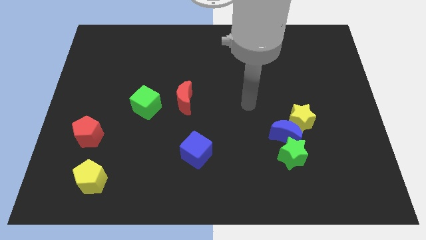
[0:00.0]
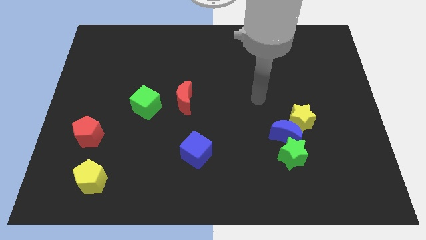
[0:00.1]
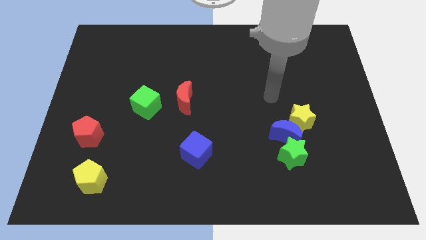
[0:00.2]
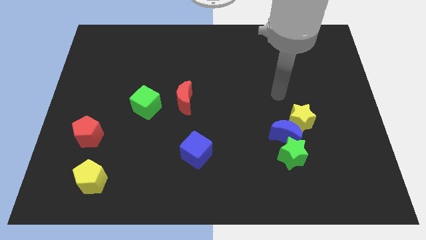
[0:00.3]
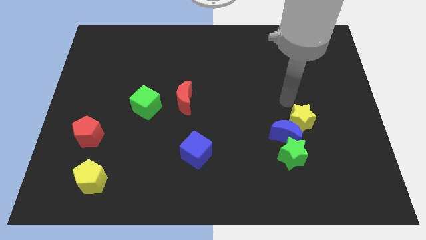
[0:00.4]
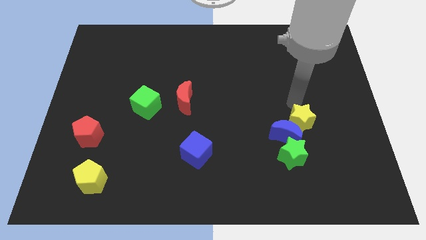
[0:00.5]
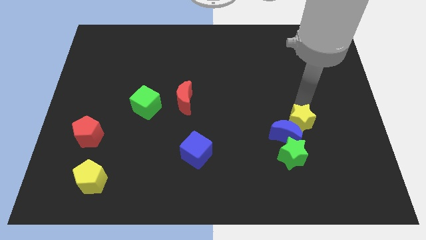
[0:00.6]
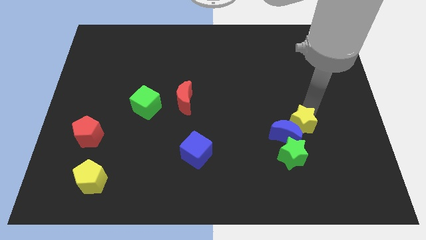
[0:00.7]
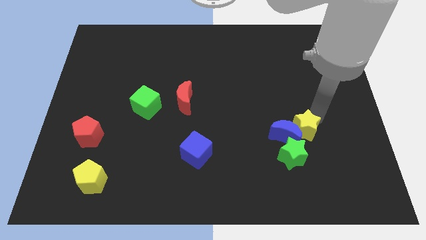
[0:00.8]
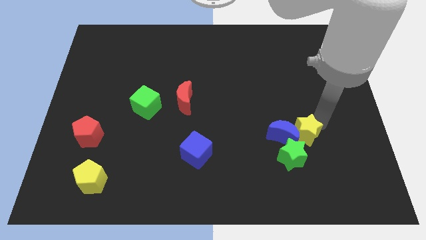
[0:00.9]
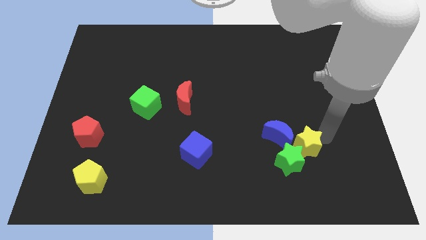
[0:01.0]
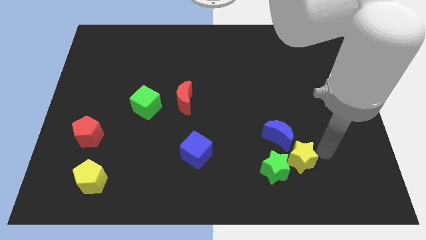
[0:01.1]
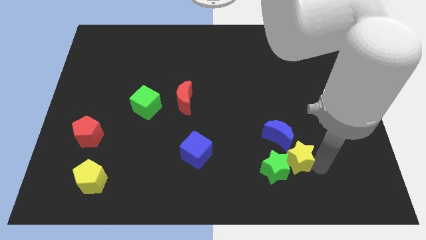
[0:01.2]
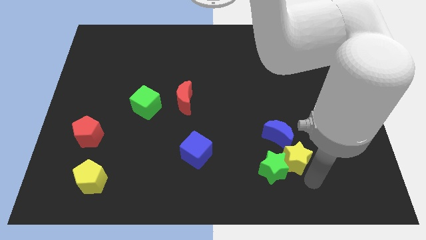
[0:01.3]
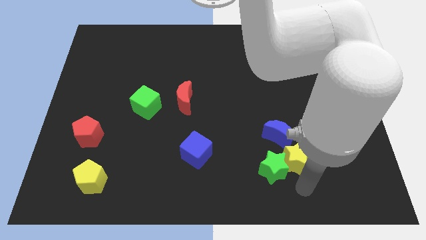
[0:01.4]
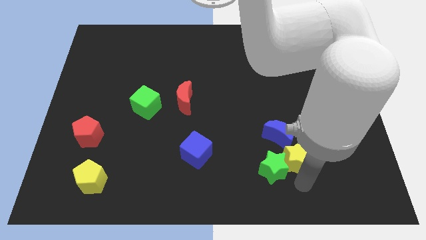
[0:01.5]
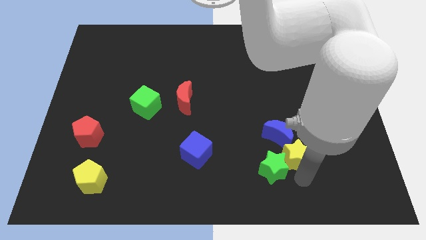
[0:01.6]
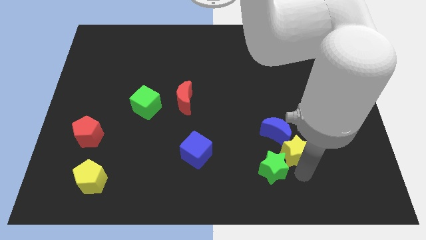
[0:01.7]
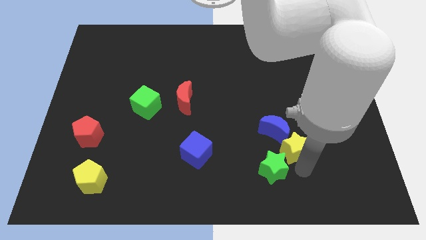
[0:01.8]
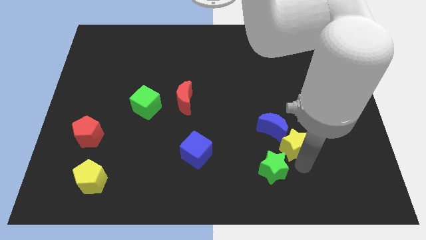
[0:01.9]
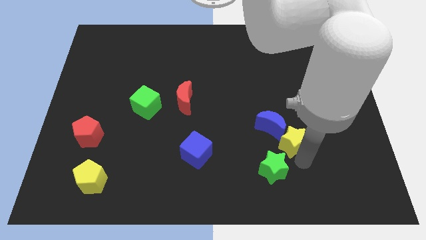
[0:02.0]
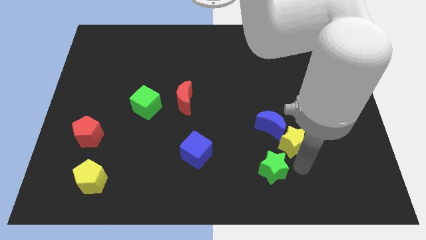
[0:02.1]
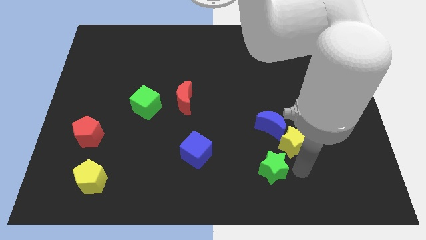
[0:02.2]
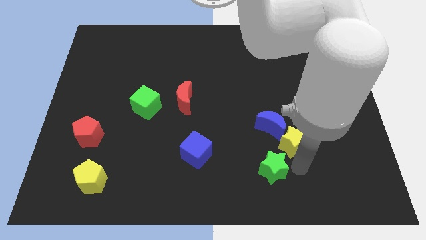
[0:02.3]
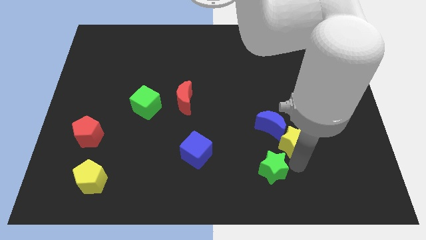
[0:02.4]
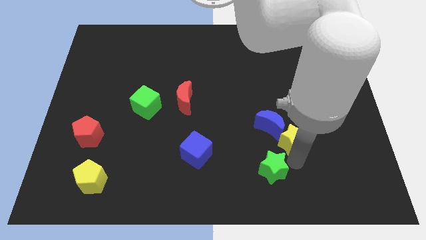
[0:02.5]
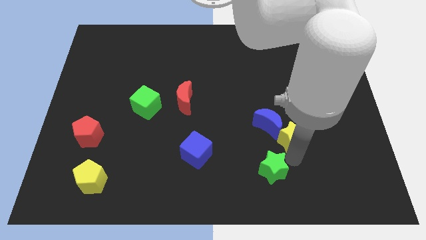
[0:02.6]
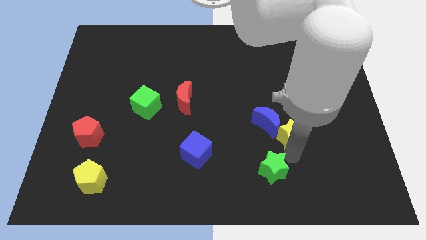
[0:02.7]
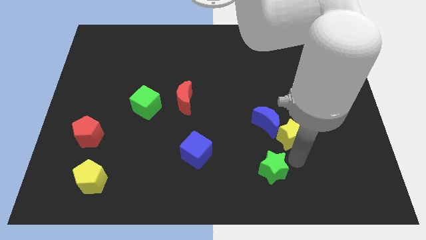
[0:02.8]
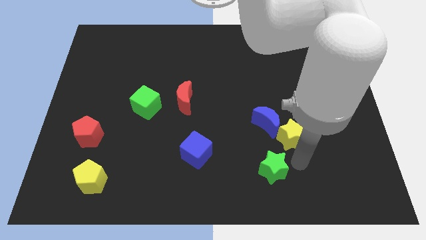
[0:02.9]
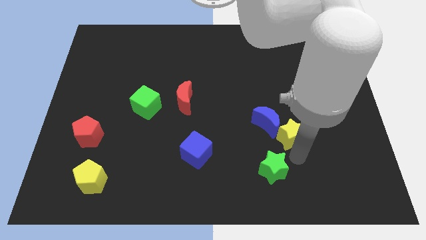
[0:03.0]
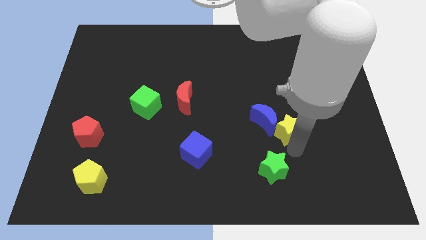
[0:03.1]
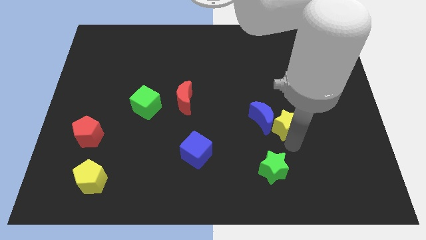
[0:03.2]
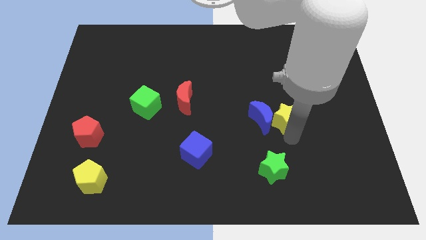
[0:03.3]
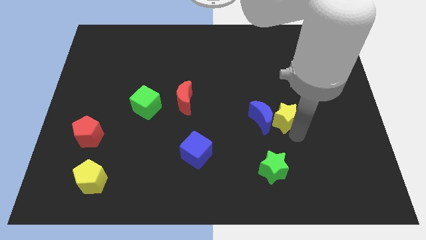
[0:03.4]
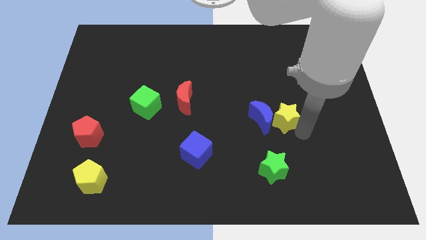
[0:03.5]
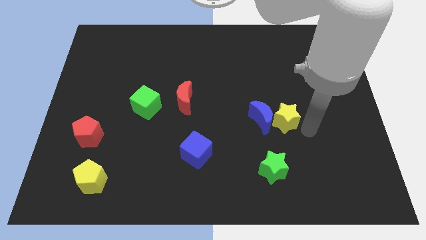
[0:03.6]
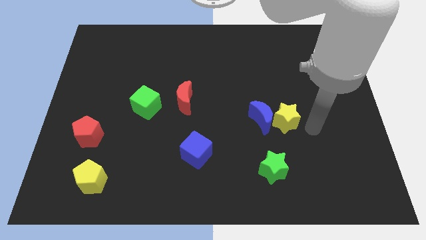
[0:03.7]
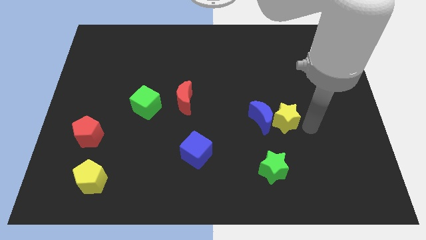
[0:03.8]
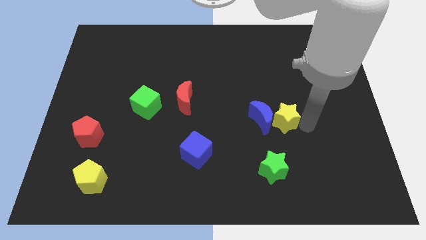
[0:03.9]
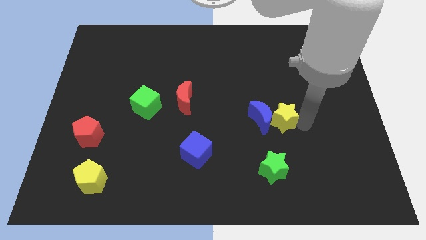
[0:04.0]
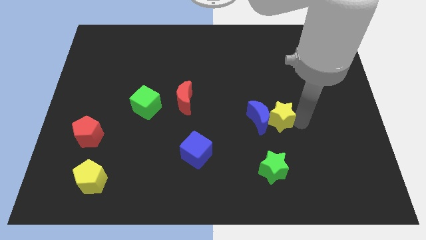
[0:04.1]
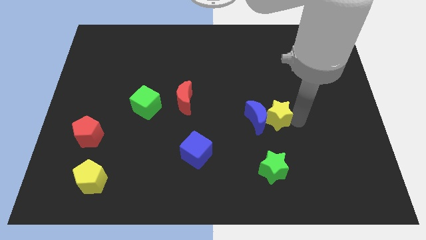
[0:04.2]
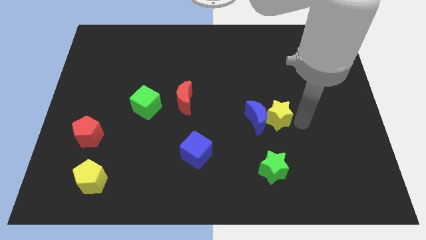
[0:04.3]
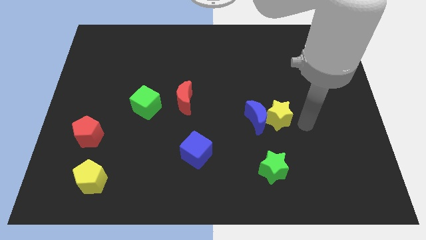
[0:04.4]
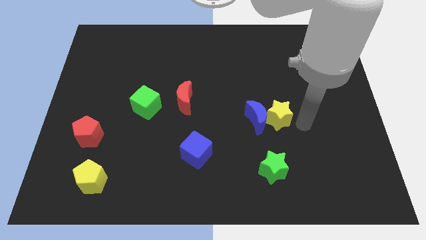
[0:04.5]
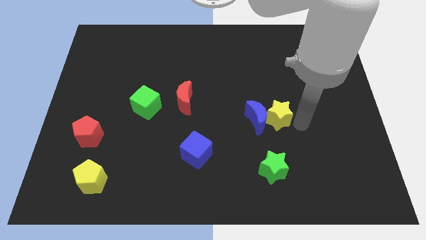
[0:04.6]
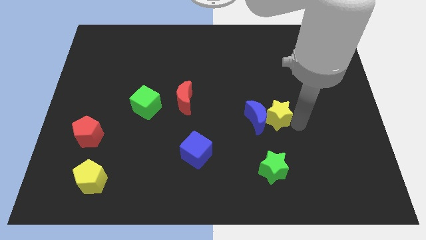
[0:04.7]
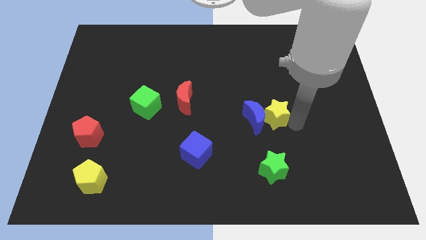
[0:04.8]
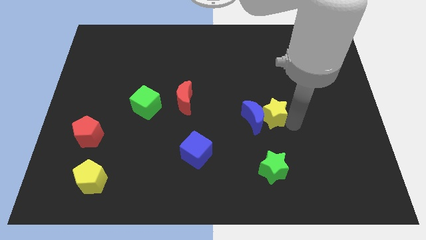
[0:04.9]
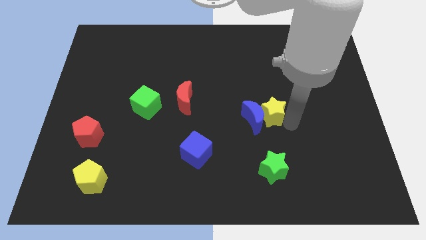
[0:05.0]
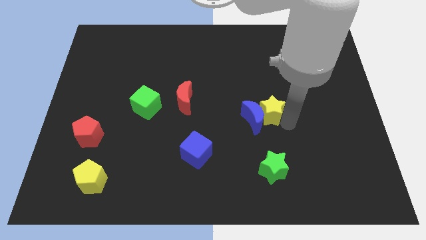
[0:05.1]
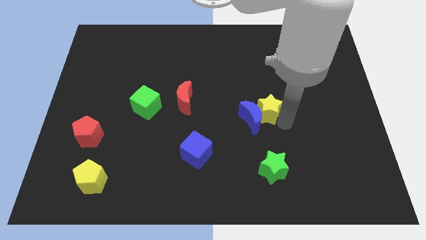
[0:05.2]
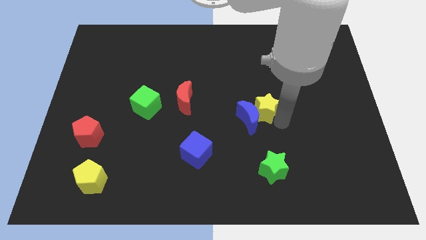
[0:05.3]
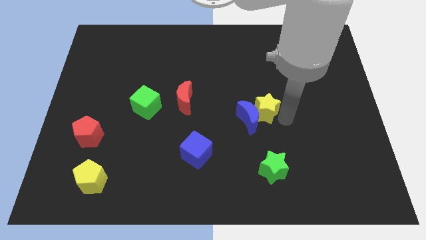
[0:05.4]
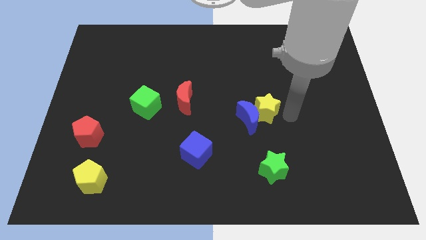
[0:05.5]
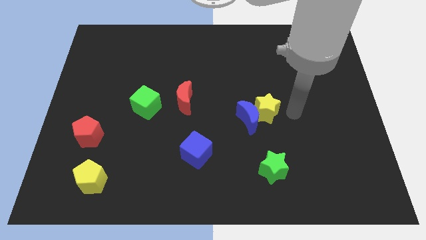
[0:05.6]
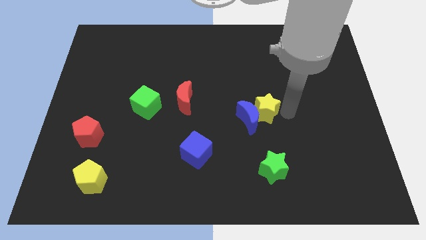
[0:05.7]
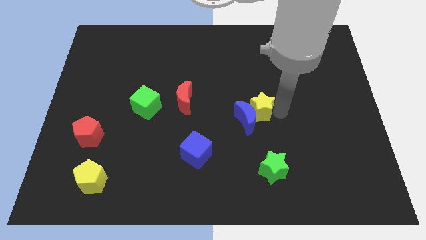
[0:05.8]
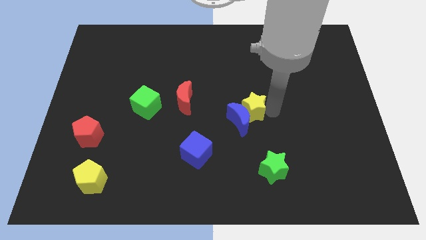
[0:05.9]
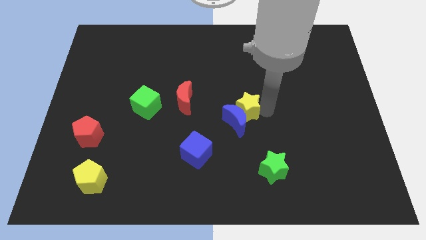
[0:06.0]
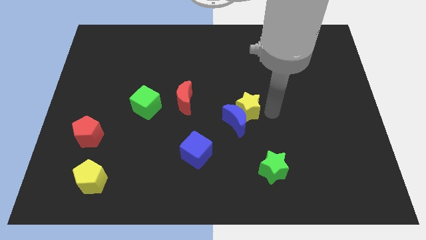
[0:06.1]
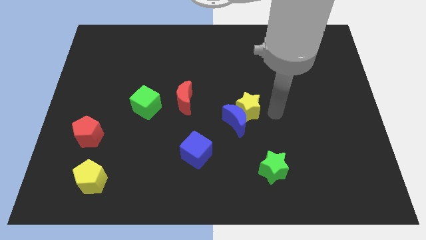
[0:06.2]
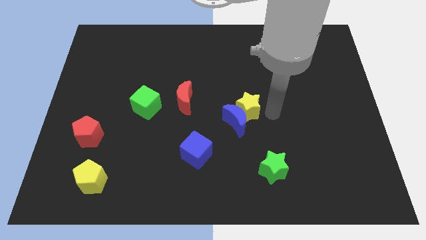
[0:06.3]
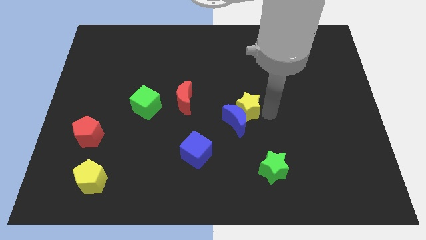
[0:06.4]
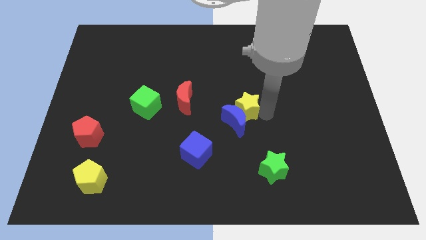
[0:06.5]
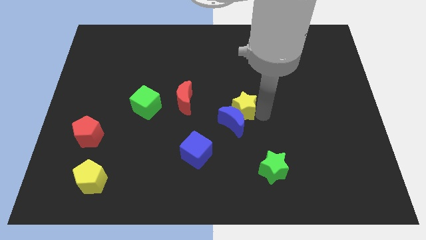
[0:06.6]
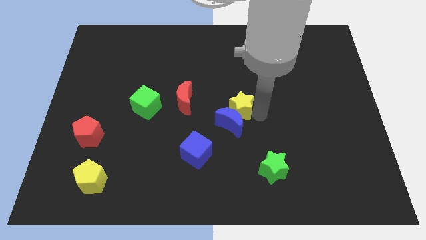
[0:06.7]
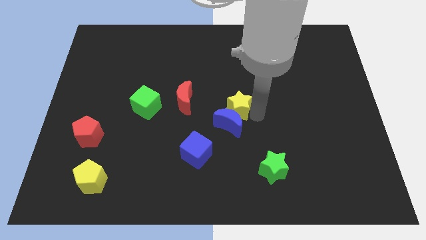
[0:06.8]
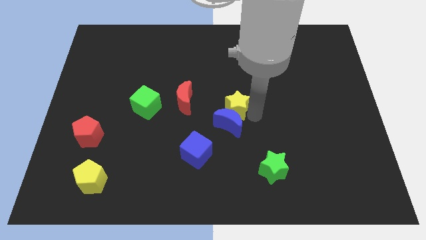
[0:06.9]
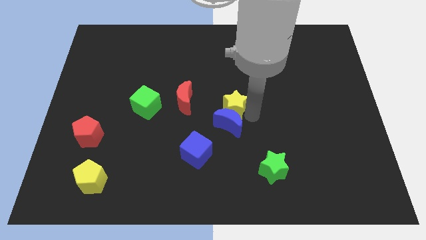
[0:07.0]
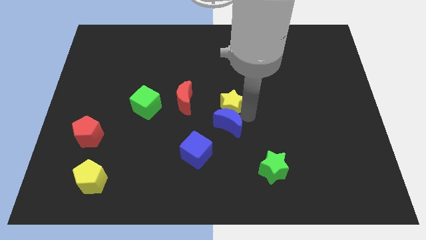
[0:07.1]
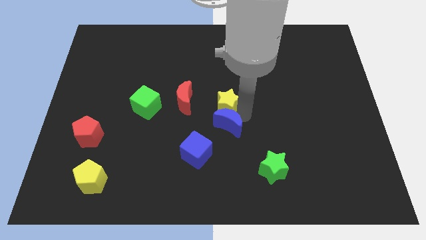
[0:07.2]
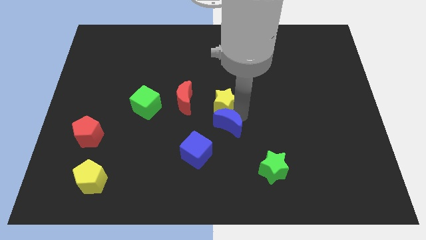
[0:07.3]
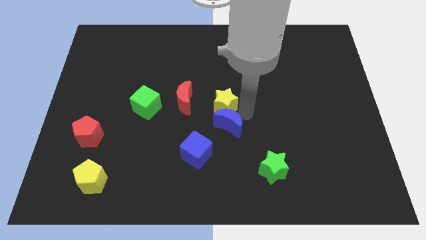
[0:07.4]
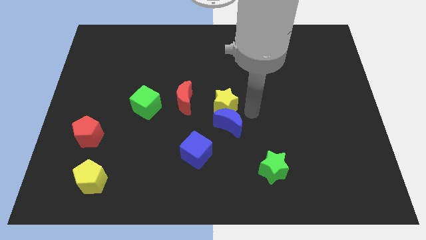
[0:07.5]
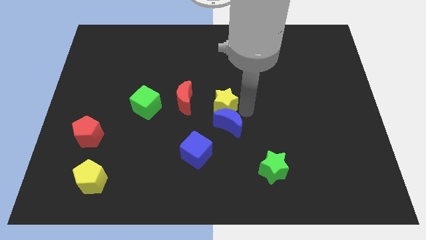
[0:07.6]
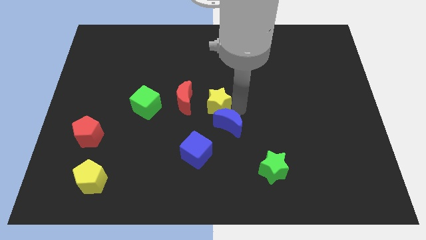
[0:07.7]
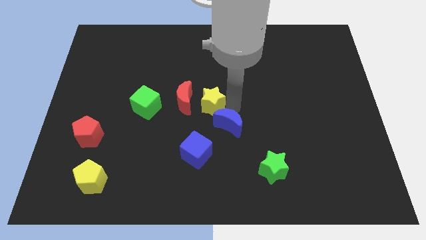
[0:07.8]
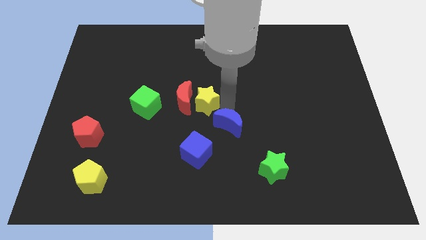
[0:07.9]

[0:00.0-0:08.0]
move the yellow star close to the red moon
